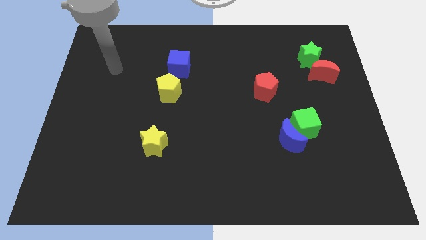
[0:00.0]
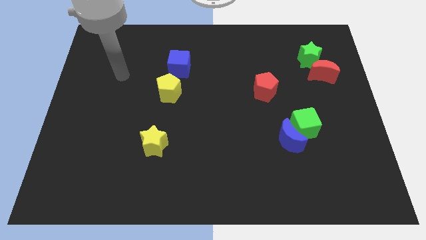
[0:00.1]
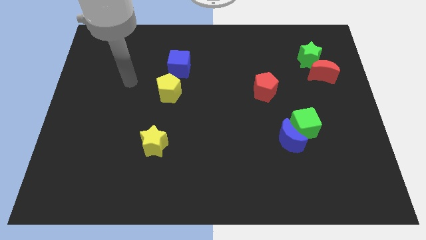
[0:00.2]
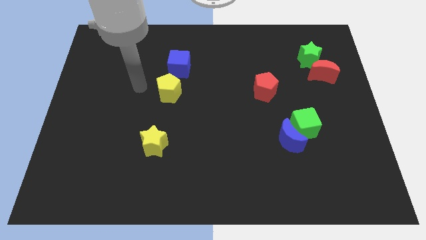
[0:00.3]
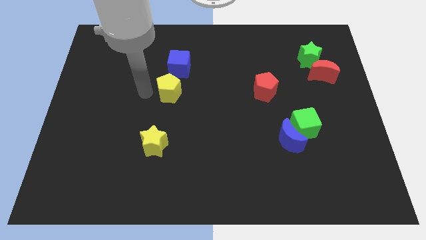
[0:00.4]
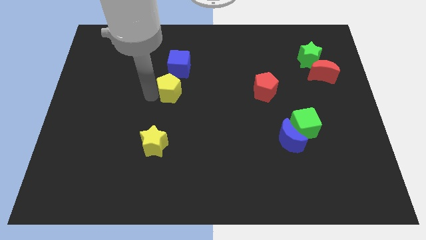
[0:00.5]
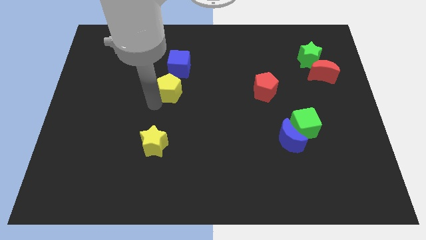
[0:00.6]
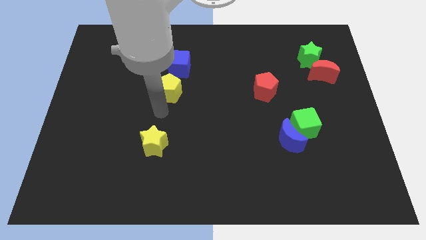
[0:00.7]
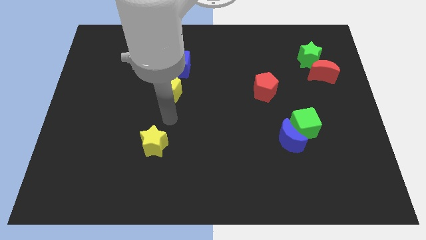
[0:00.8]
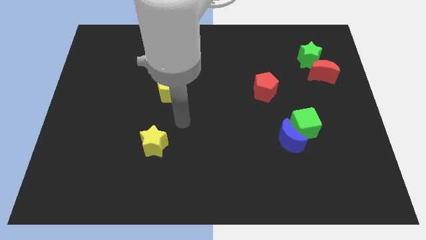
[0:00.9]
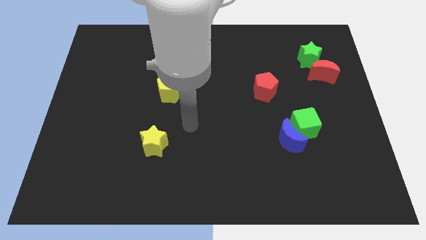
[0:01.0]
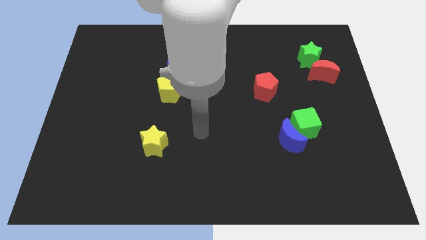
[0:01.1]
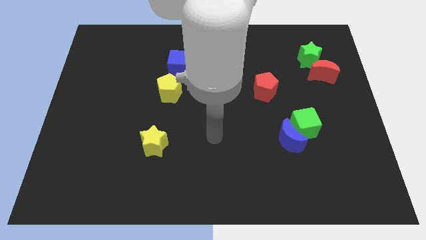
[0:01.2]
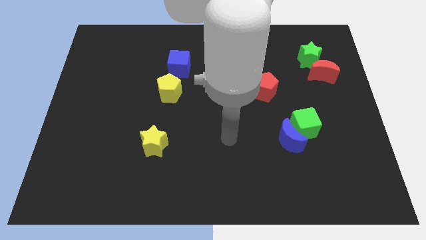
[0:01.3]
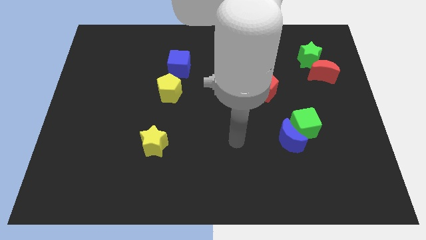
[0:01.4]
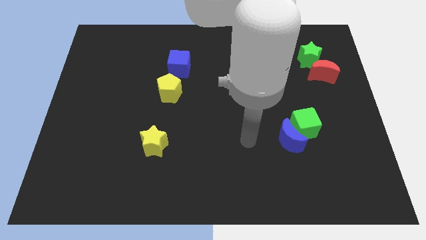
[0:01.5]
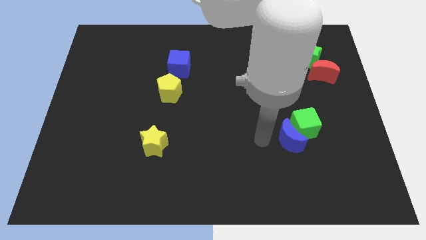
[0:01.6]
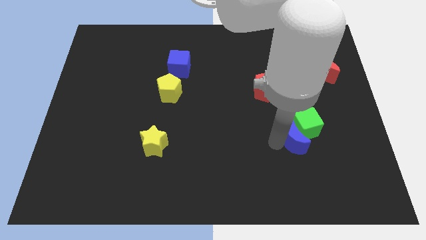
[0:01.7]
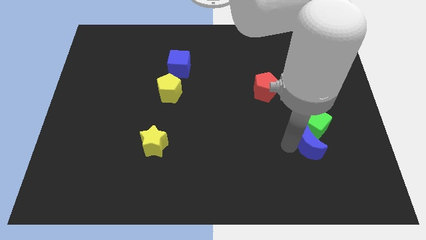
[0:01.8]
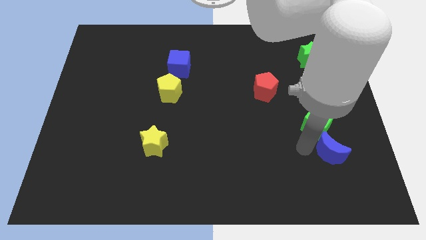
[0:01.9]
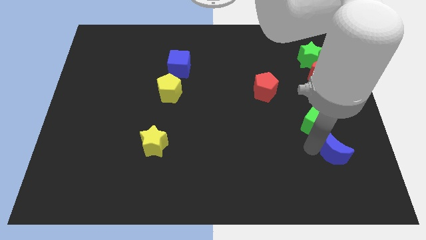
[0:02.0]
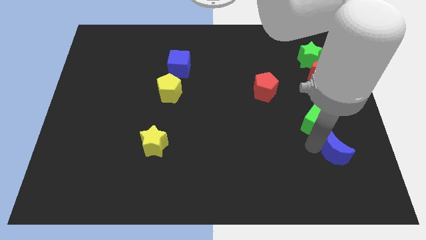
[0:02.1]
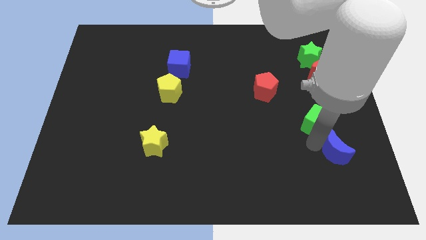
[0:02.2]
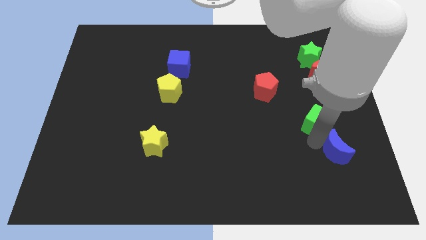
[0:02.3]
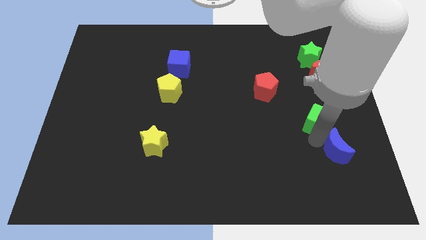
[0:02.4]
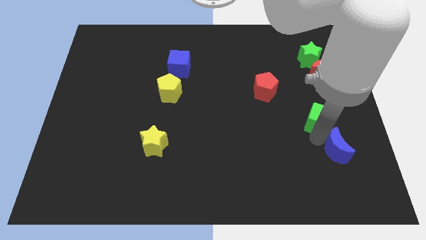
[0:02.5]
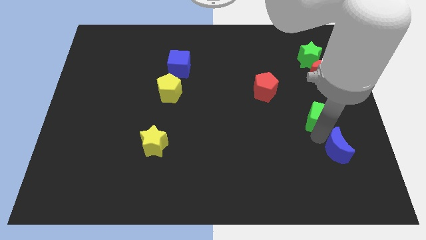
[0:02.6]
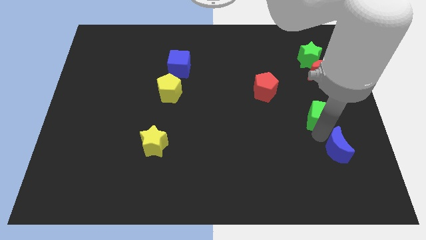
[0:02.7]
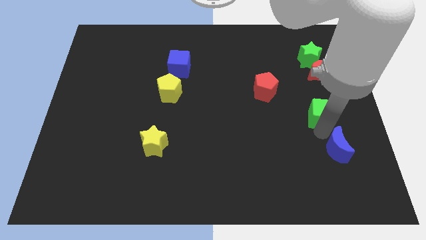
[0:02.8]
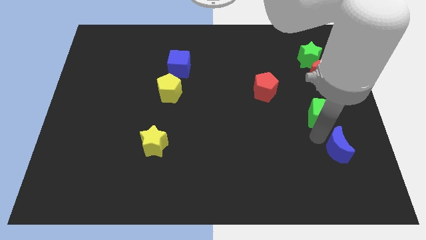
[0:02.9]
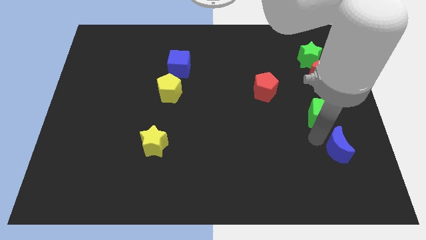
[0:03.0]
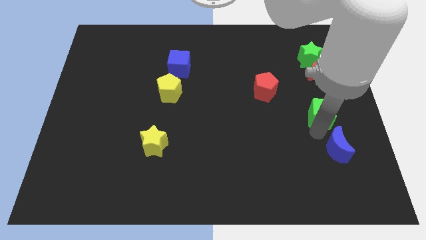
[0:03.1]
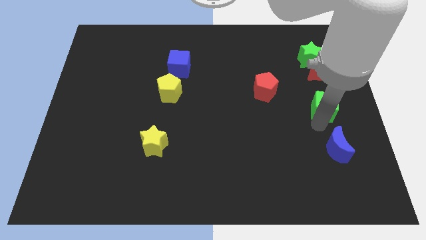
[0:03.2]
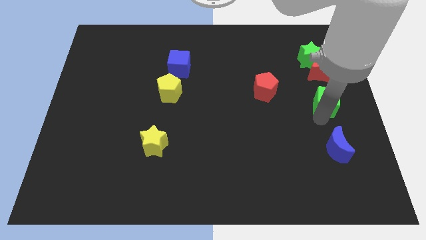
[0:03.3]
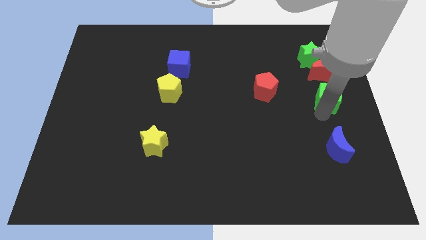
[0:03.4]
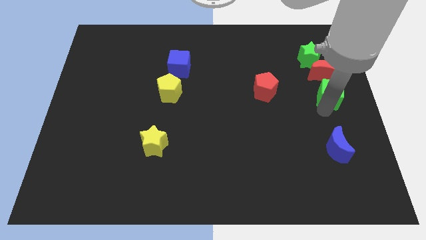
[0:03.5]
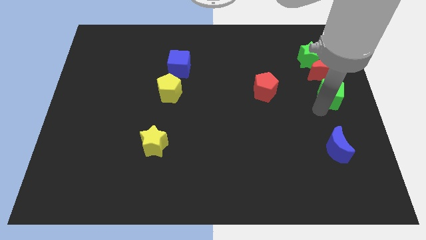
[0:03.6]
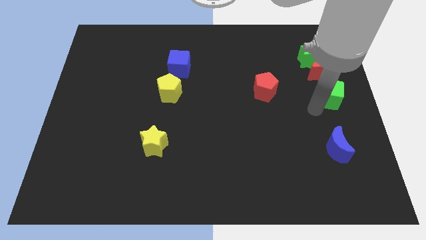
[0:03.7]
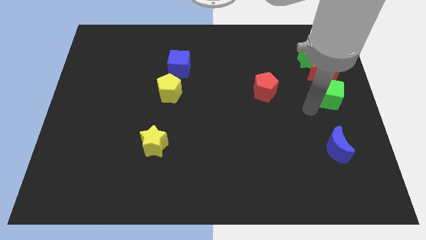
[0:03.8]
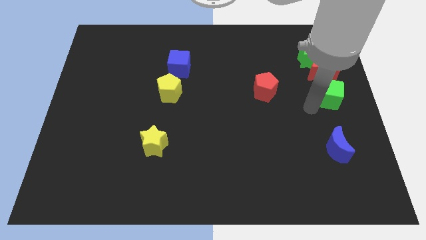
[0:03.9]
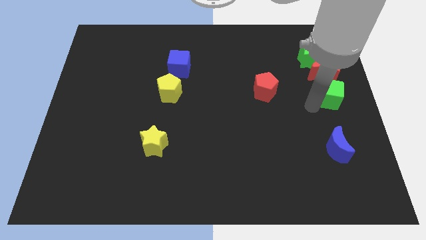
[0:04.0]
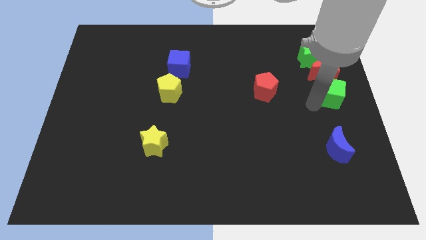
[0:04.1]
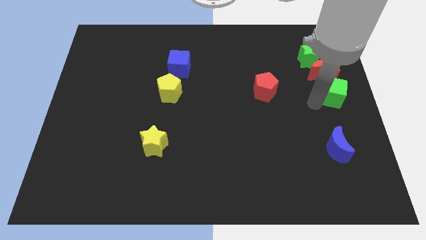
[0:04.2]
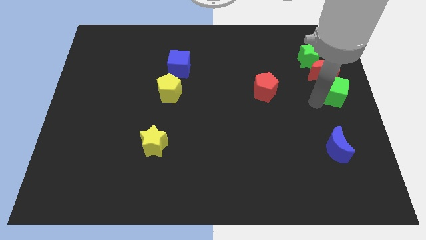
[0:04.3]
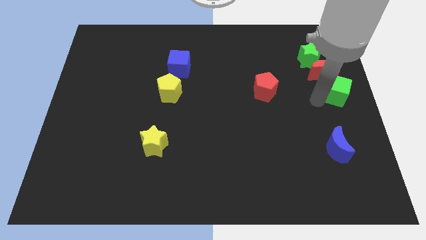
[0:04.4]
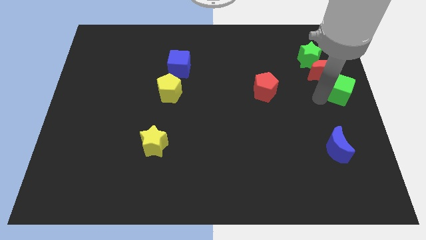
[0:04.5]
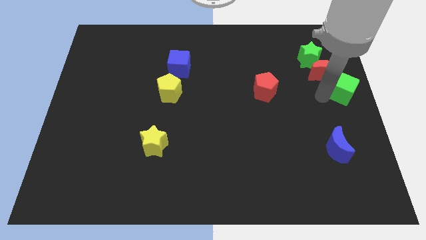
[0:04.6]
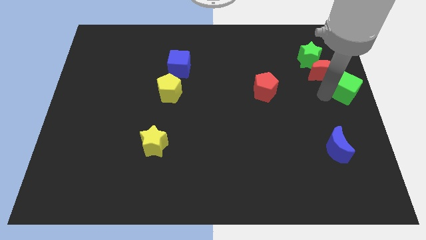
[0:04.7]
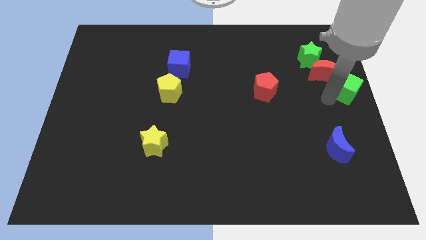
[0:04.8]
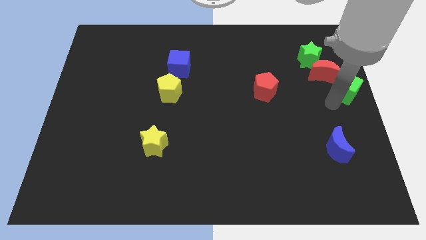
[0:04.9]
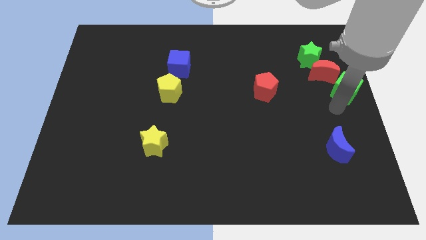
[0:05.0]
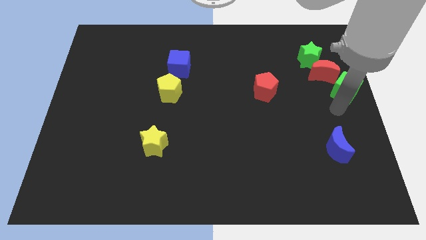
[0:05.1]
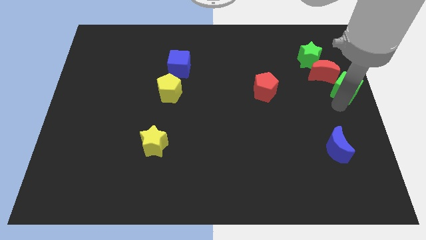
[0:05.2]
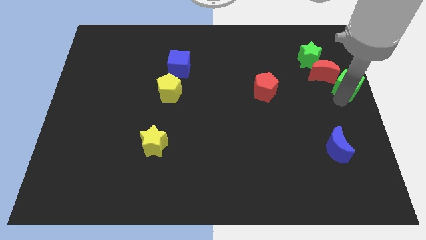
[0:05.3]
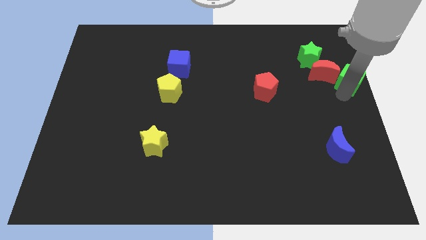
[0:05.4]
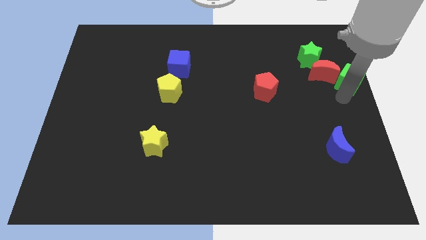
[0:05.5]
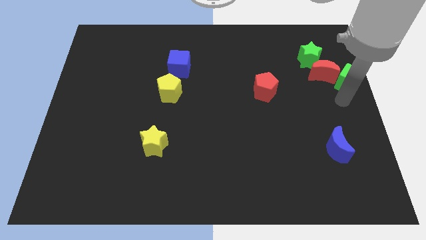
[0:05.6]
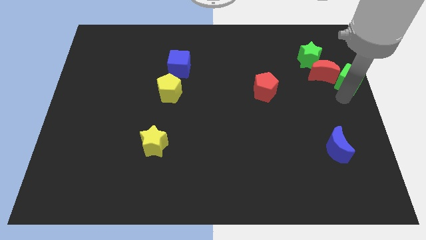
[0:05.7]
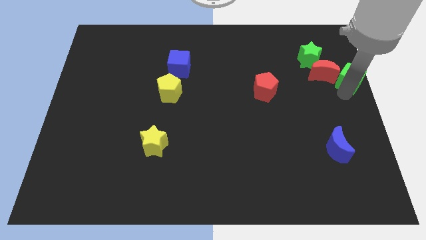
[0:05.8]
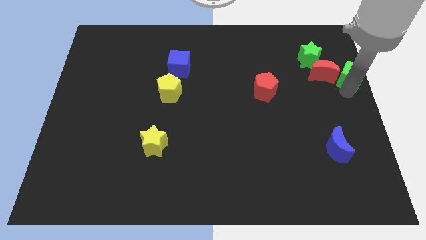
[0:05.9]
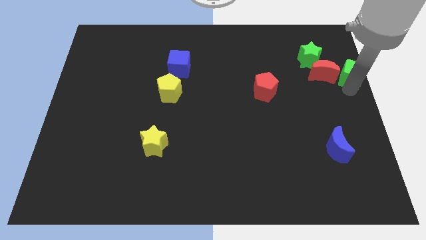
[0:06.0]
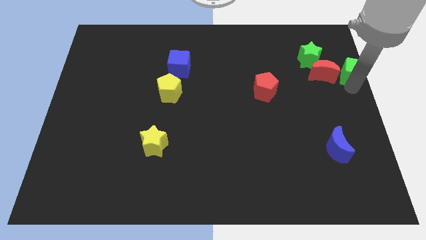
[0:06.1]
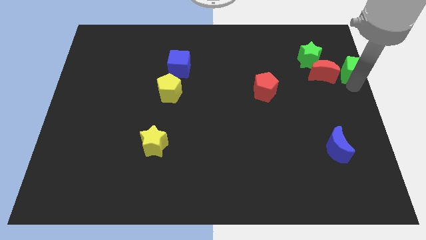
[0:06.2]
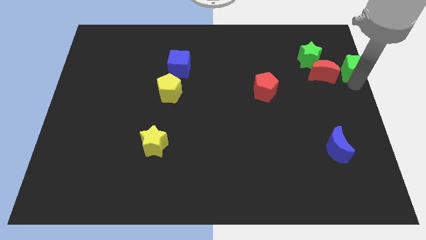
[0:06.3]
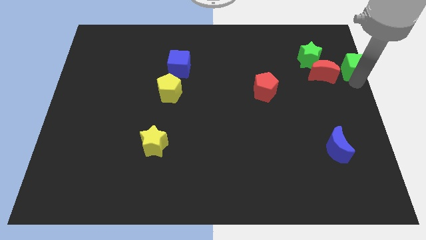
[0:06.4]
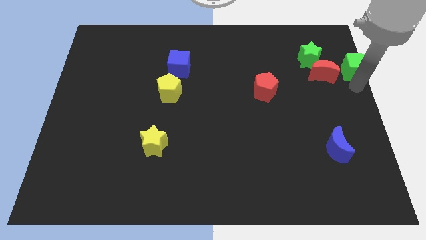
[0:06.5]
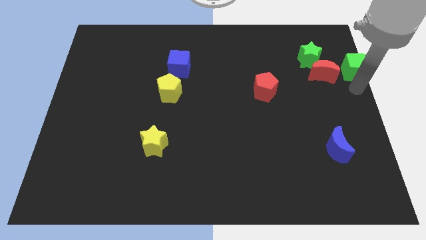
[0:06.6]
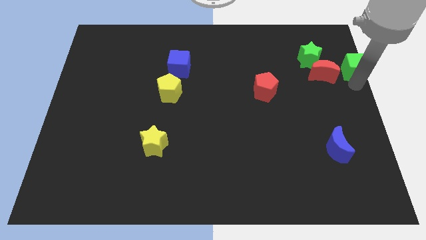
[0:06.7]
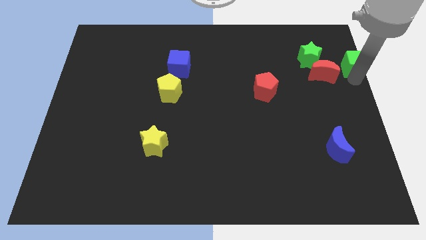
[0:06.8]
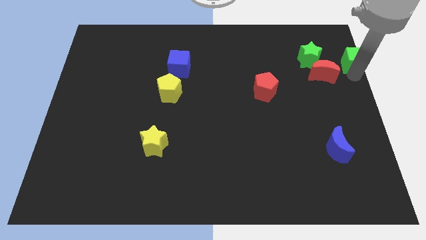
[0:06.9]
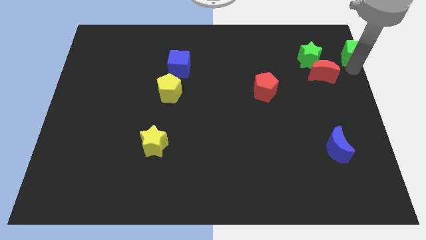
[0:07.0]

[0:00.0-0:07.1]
slide the green cube to the top right corner

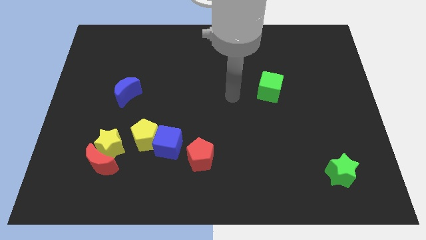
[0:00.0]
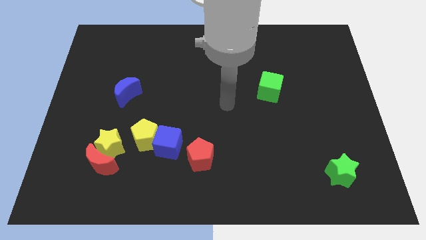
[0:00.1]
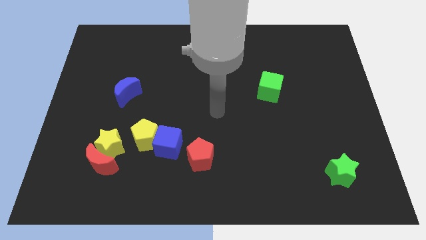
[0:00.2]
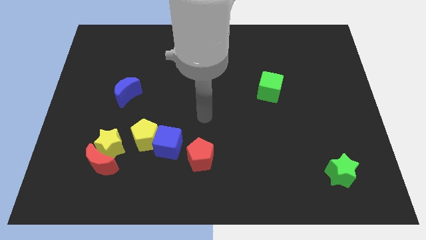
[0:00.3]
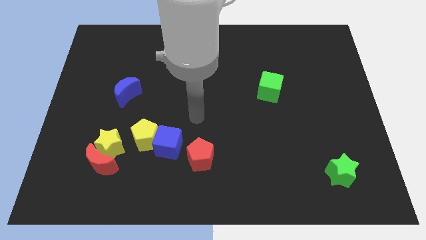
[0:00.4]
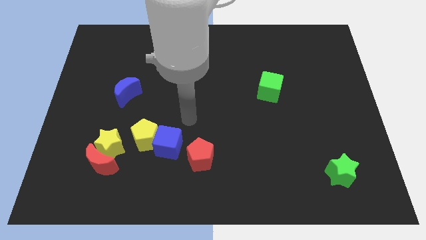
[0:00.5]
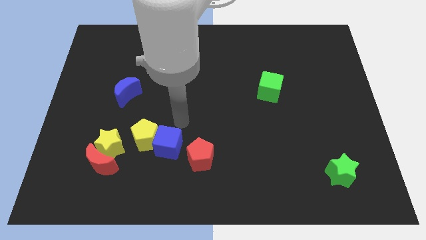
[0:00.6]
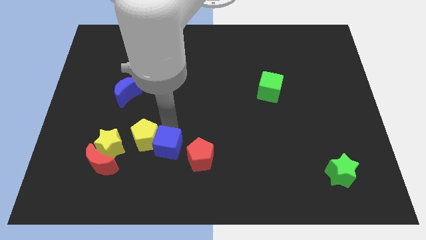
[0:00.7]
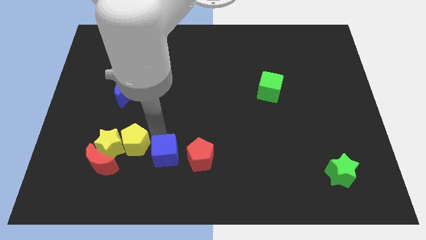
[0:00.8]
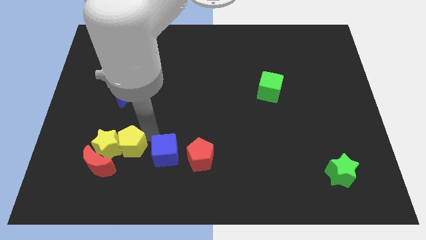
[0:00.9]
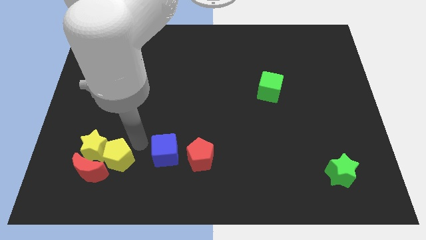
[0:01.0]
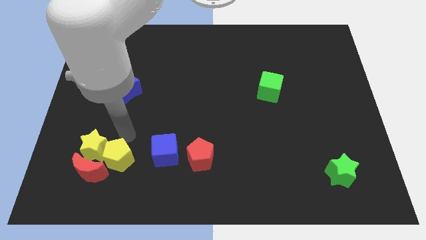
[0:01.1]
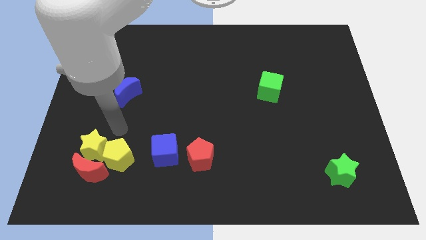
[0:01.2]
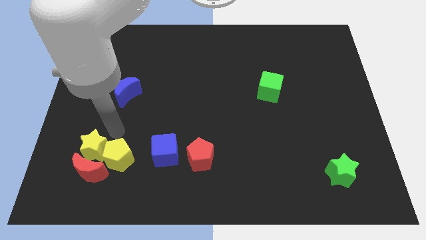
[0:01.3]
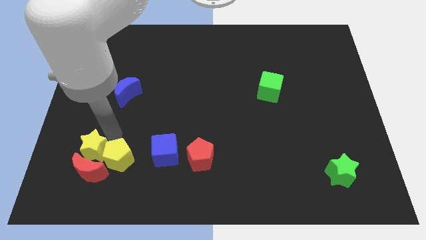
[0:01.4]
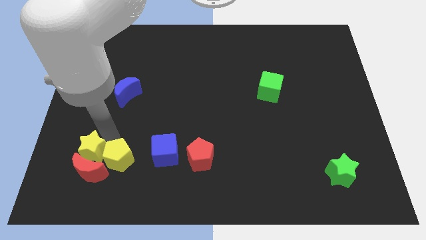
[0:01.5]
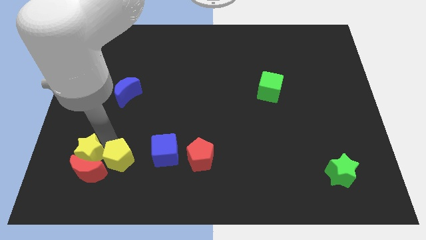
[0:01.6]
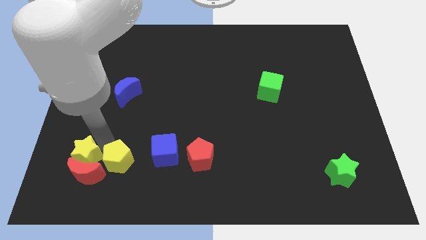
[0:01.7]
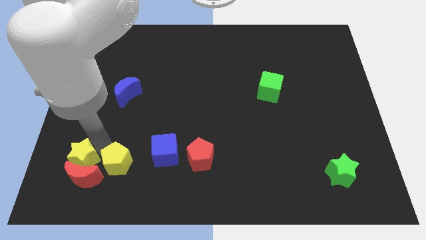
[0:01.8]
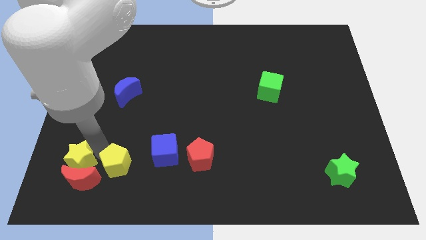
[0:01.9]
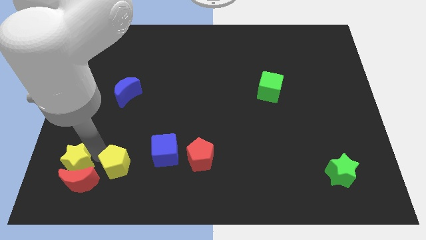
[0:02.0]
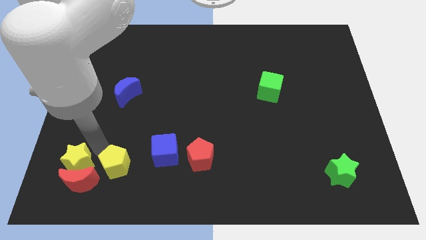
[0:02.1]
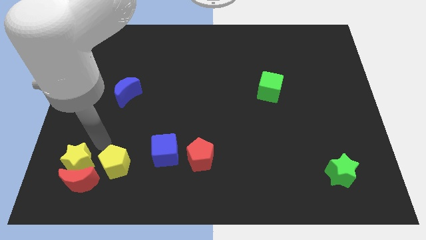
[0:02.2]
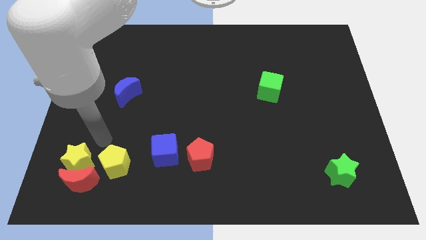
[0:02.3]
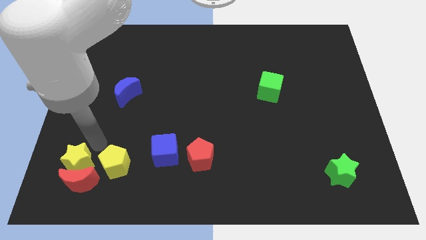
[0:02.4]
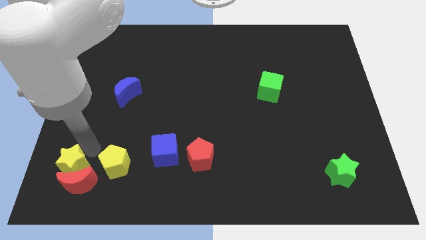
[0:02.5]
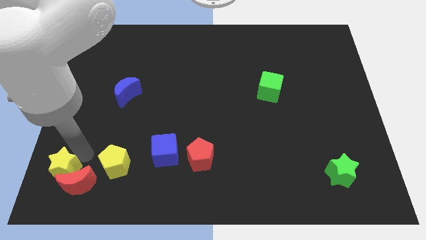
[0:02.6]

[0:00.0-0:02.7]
push the yellow star to the bottom left of the board
